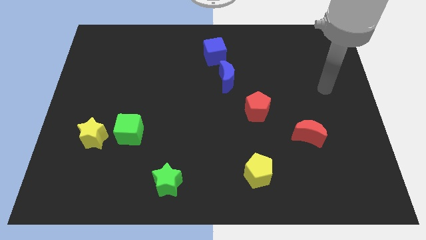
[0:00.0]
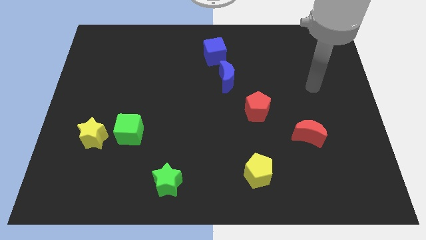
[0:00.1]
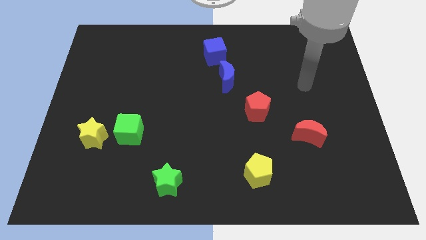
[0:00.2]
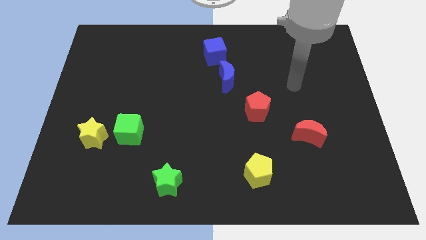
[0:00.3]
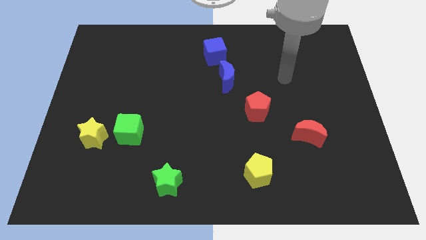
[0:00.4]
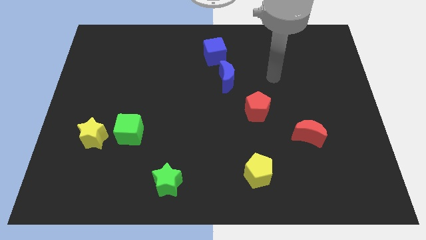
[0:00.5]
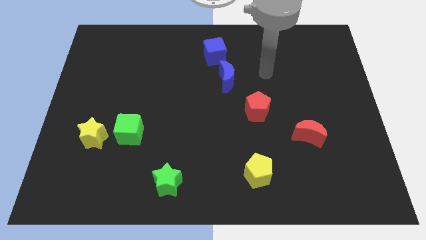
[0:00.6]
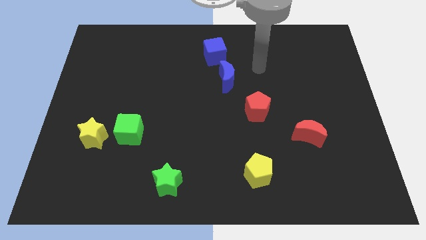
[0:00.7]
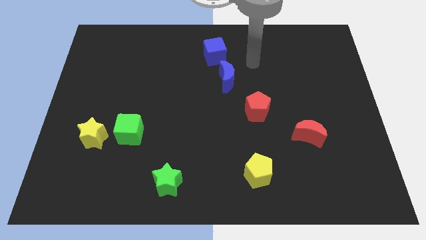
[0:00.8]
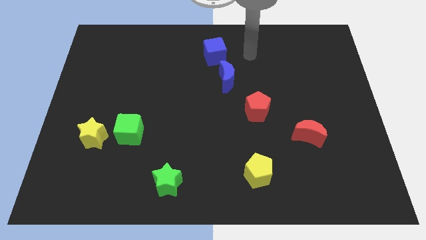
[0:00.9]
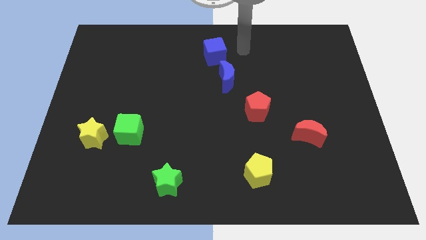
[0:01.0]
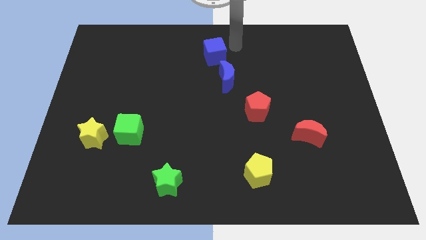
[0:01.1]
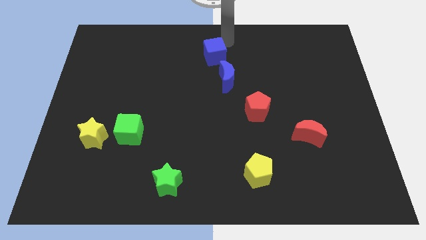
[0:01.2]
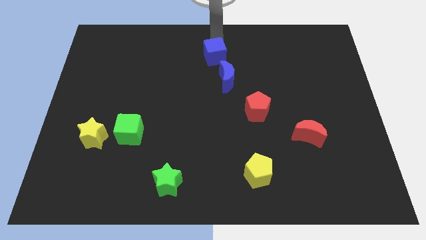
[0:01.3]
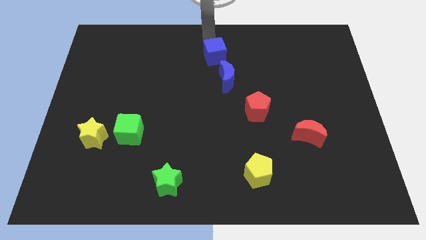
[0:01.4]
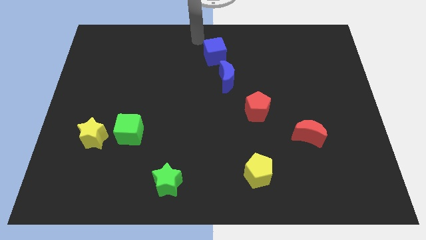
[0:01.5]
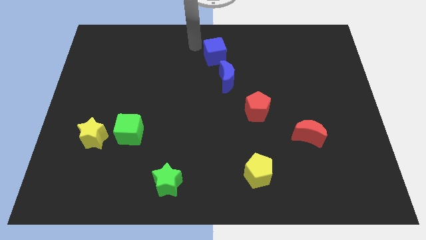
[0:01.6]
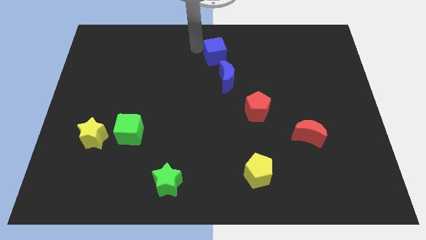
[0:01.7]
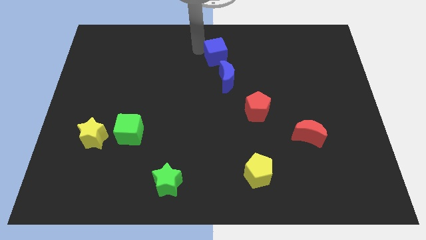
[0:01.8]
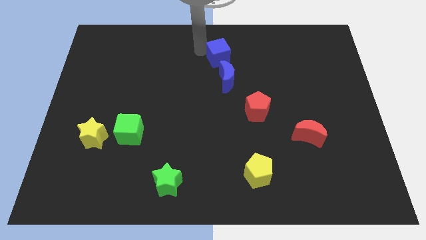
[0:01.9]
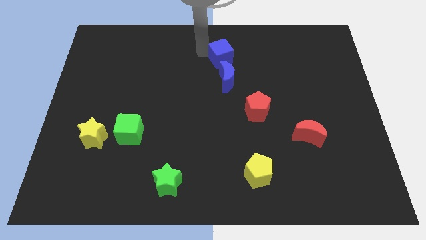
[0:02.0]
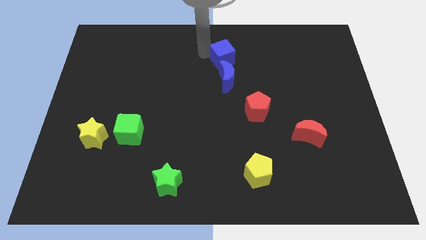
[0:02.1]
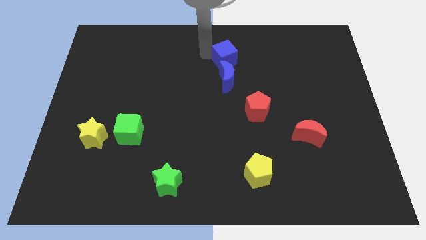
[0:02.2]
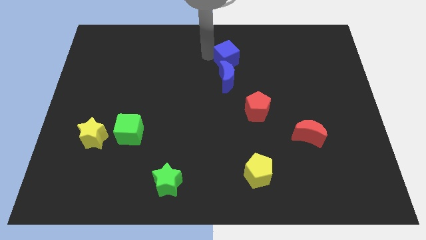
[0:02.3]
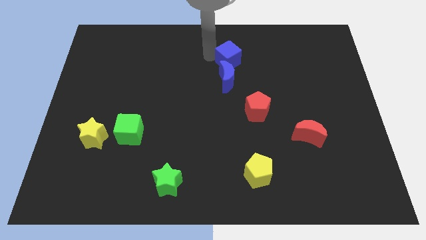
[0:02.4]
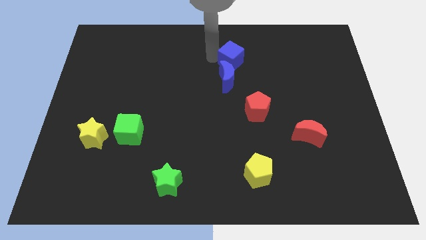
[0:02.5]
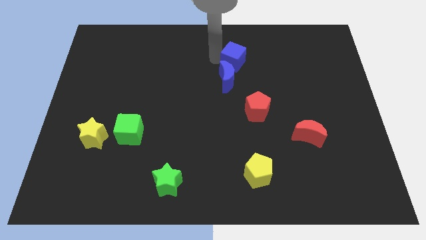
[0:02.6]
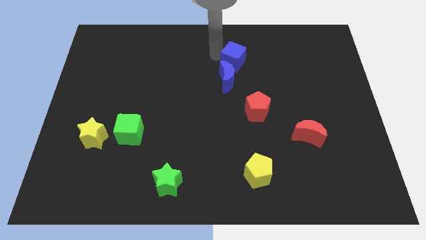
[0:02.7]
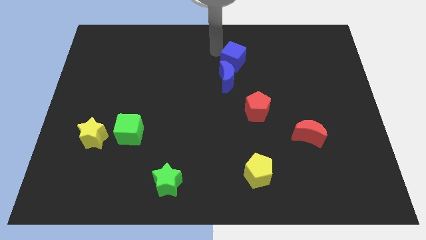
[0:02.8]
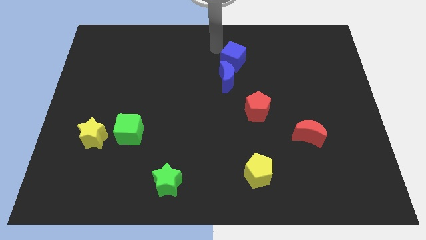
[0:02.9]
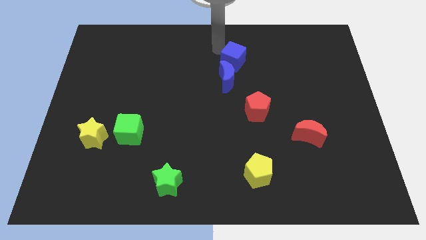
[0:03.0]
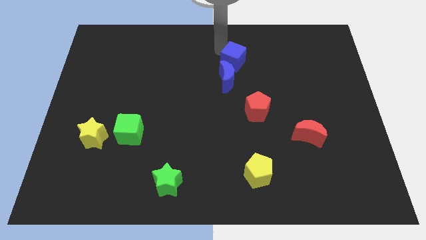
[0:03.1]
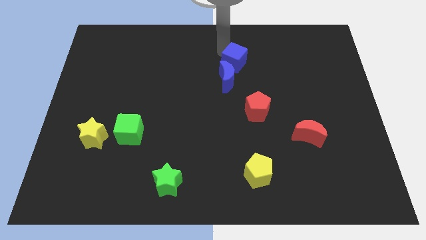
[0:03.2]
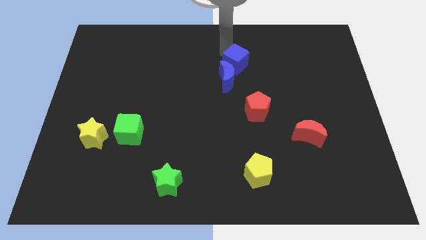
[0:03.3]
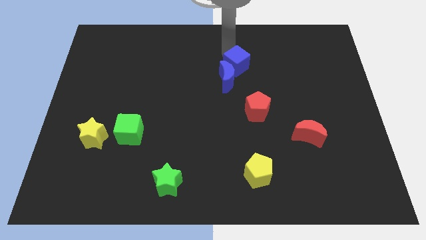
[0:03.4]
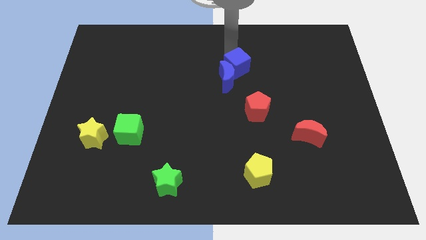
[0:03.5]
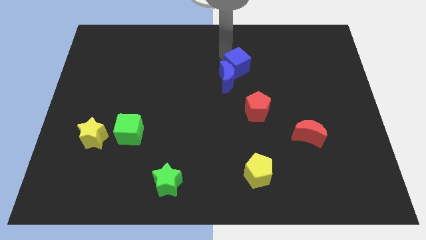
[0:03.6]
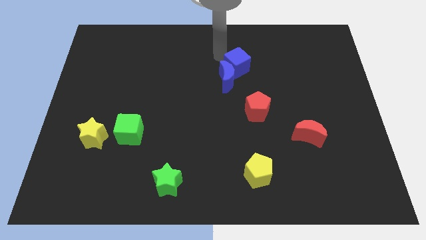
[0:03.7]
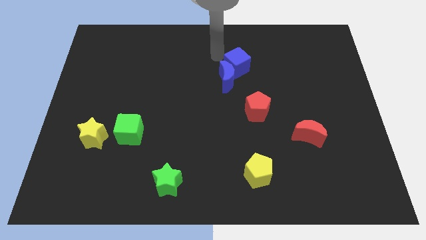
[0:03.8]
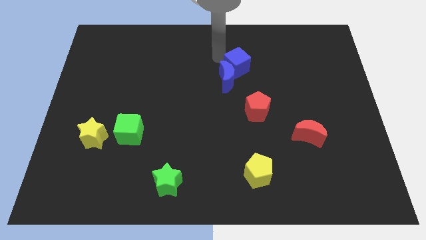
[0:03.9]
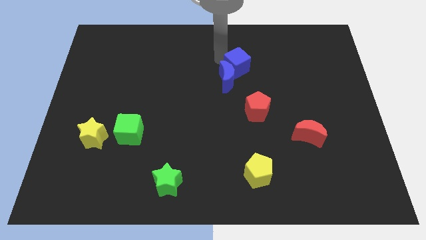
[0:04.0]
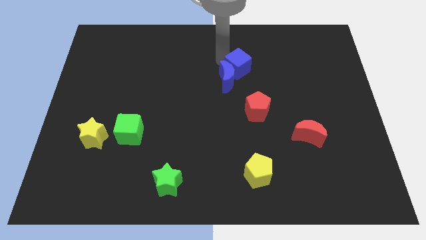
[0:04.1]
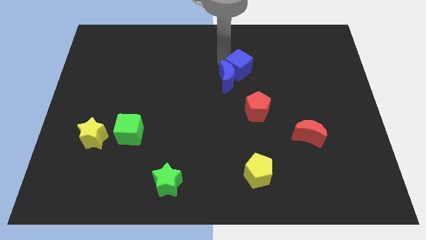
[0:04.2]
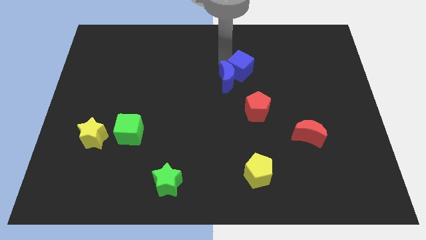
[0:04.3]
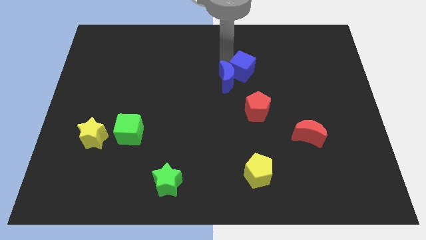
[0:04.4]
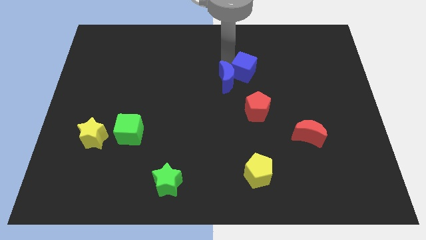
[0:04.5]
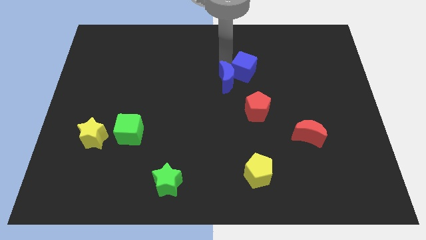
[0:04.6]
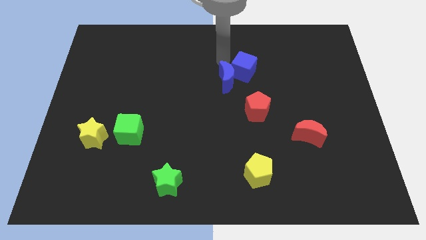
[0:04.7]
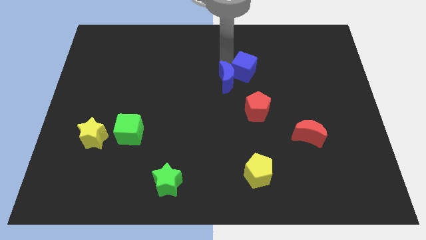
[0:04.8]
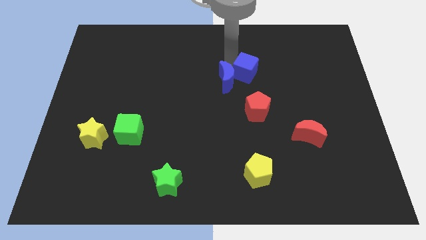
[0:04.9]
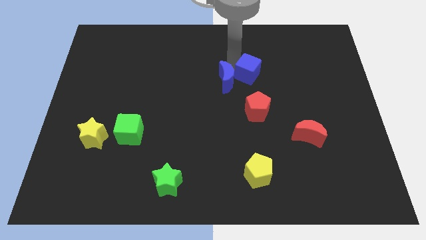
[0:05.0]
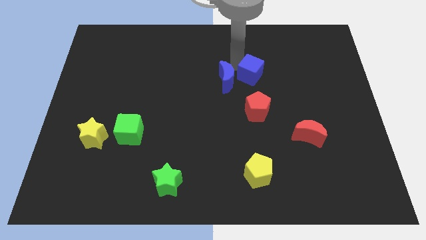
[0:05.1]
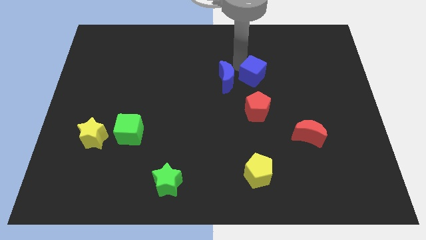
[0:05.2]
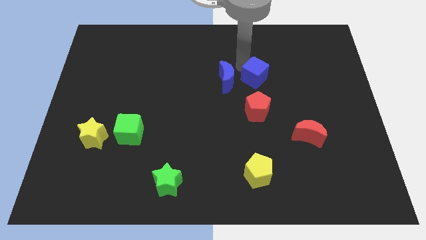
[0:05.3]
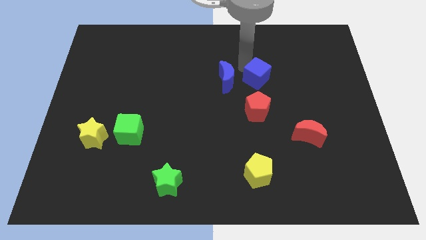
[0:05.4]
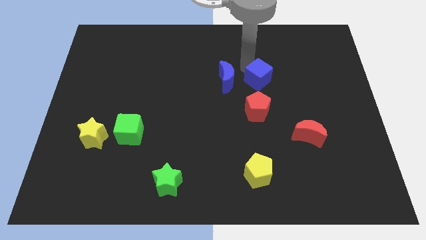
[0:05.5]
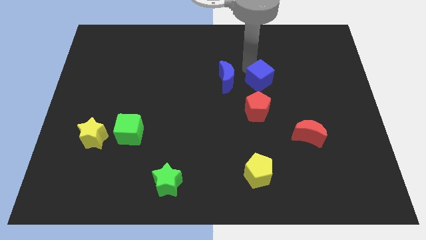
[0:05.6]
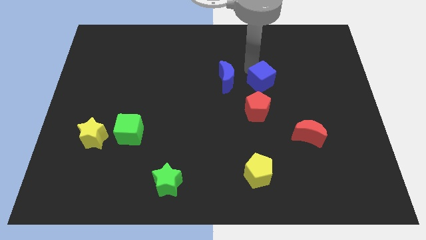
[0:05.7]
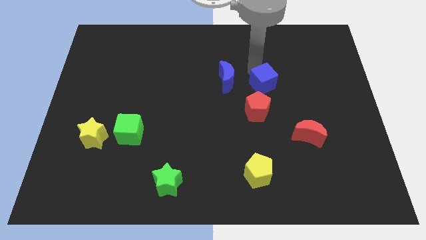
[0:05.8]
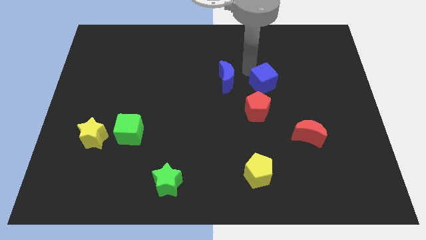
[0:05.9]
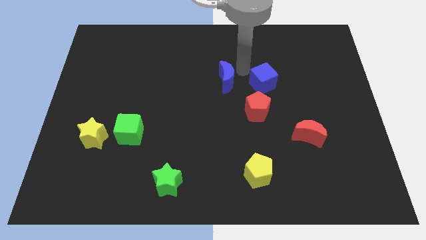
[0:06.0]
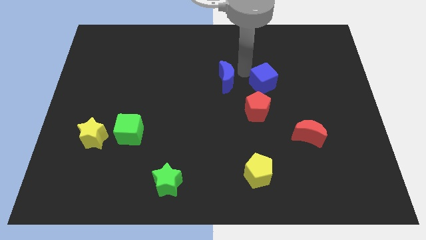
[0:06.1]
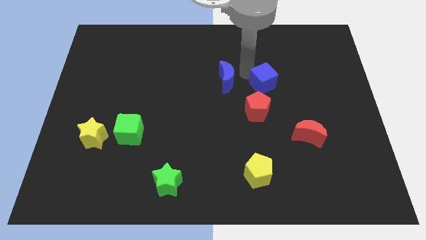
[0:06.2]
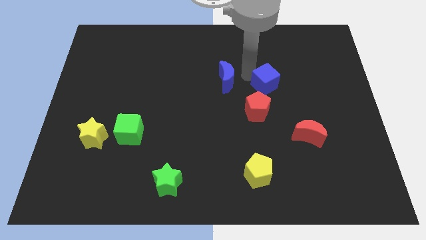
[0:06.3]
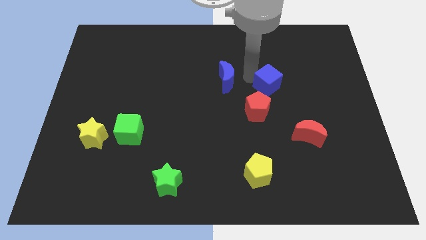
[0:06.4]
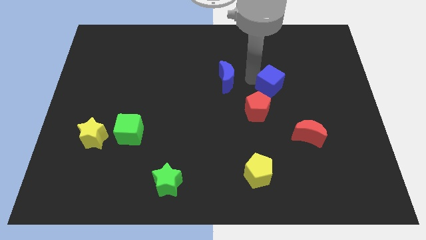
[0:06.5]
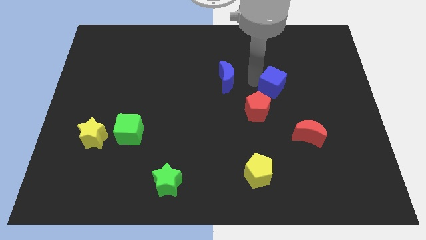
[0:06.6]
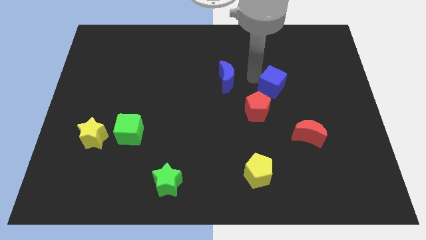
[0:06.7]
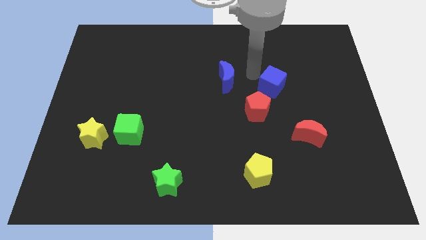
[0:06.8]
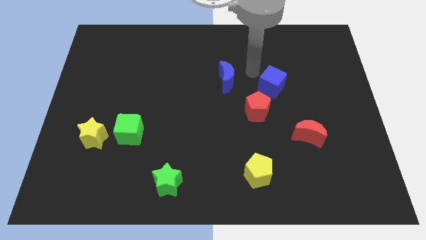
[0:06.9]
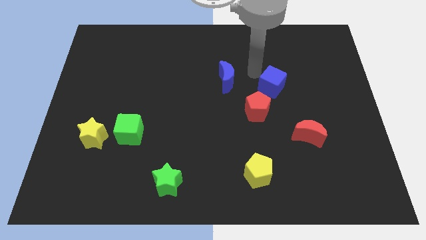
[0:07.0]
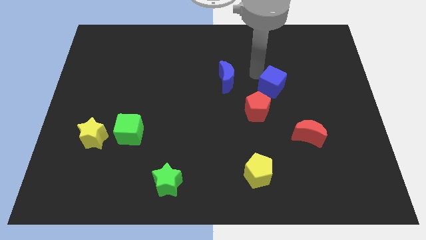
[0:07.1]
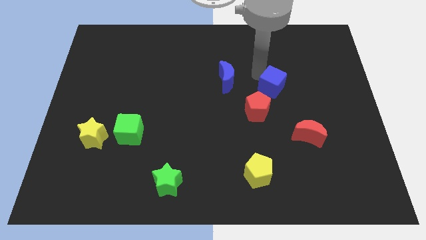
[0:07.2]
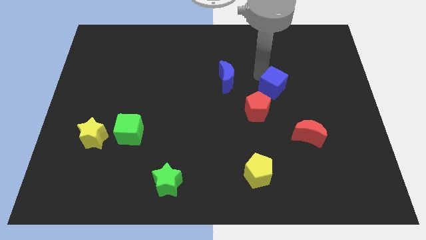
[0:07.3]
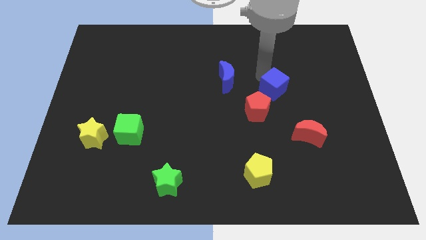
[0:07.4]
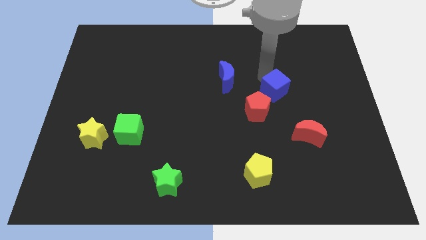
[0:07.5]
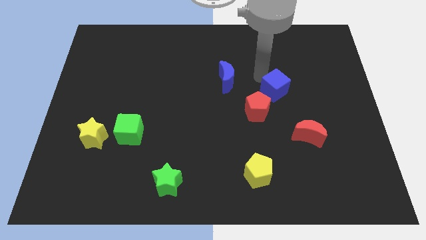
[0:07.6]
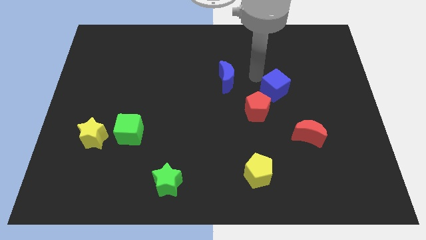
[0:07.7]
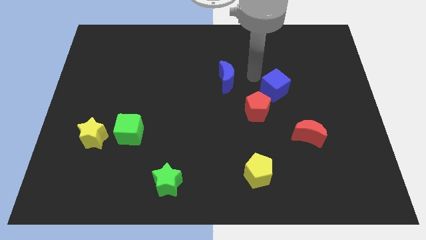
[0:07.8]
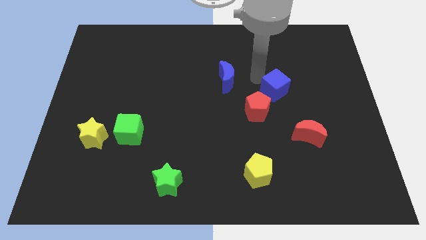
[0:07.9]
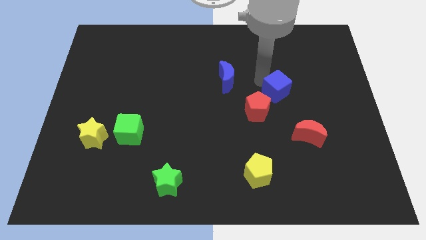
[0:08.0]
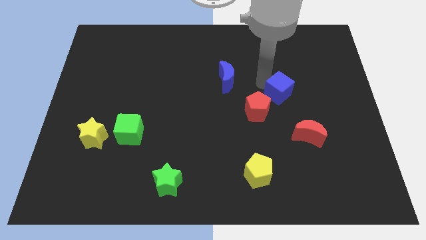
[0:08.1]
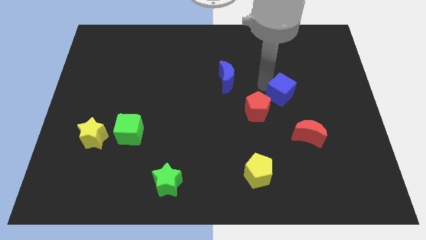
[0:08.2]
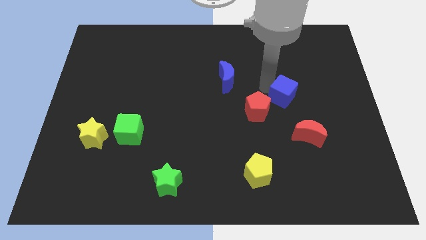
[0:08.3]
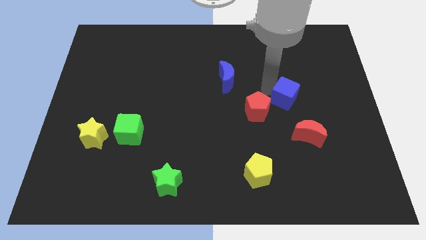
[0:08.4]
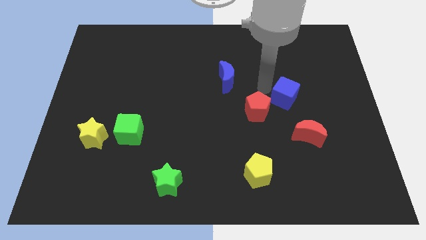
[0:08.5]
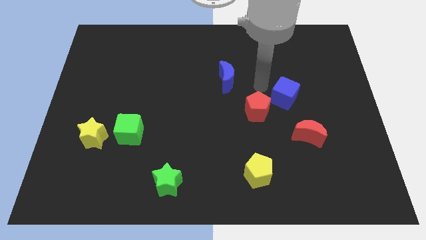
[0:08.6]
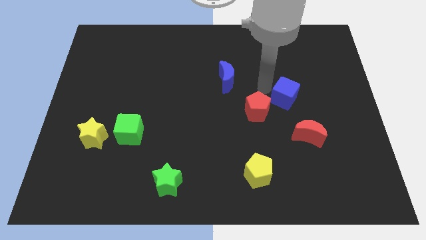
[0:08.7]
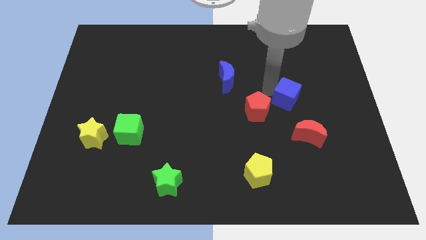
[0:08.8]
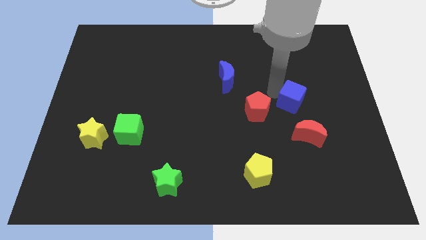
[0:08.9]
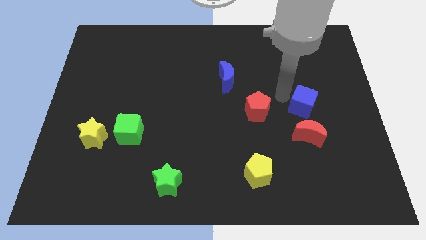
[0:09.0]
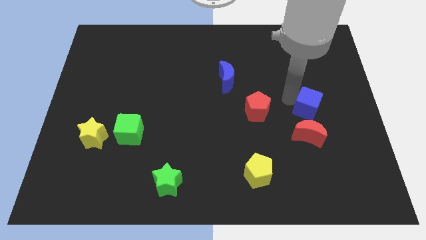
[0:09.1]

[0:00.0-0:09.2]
put the blue cube to the top right side of the red moon
